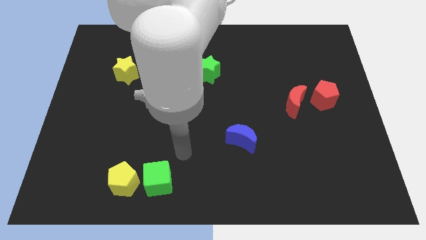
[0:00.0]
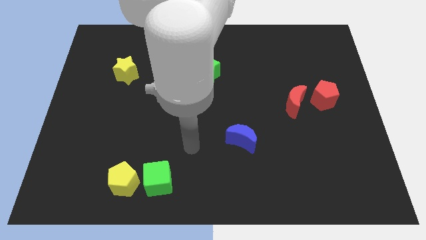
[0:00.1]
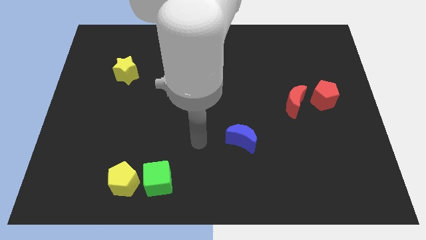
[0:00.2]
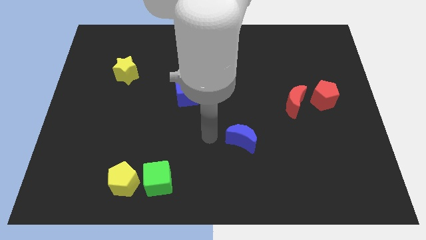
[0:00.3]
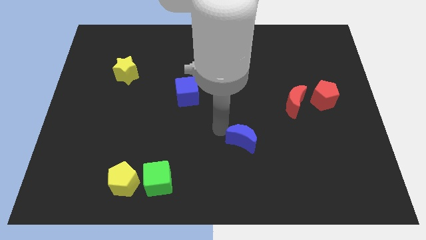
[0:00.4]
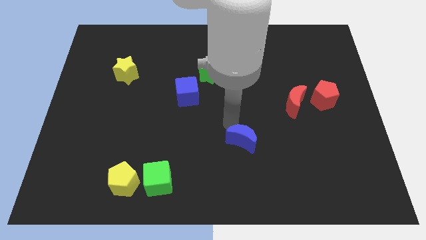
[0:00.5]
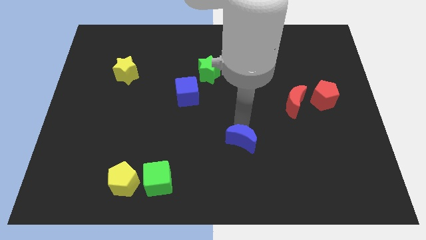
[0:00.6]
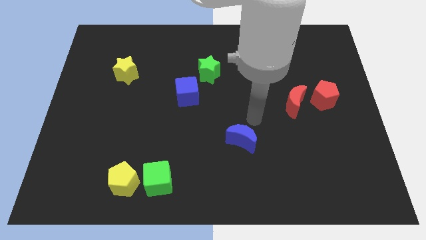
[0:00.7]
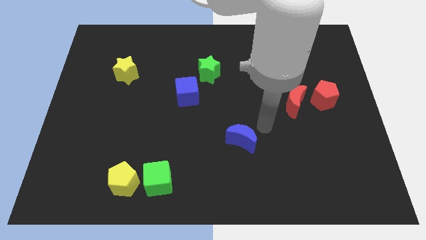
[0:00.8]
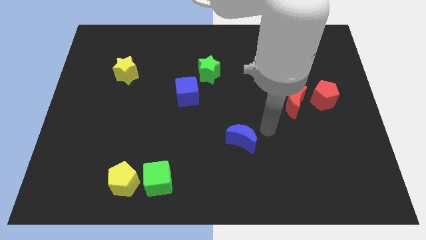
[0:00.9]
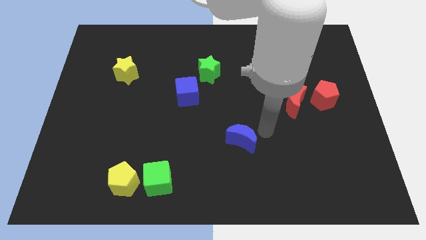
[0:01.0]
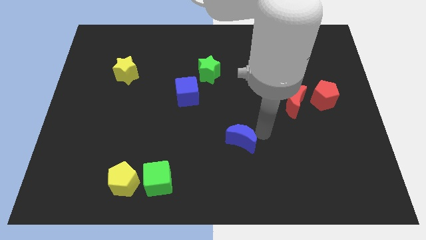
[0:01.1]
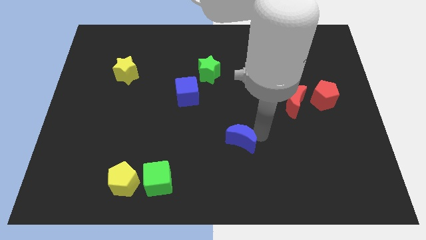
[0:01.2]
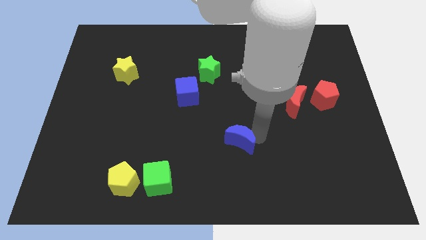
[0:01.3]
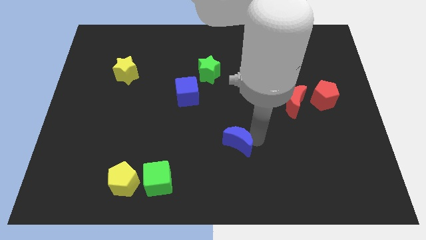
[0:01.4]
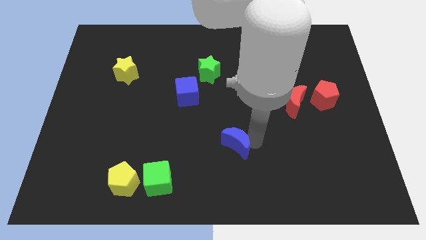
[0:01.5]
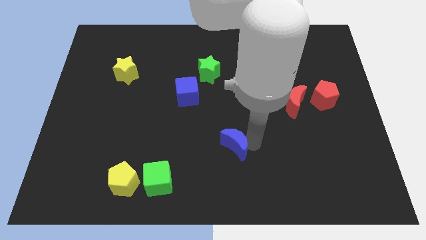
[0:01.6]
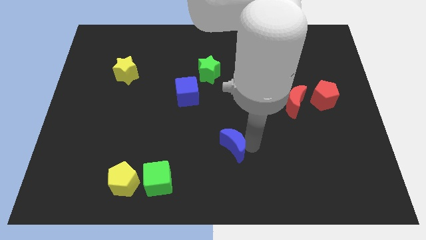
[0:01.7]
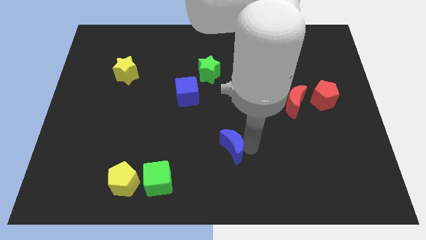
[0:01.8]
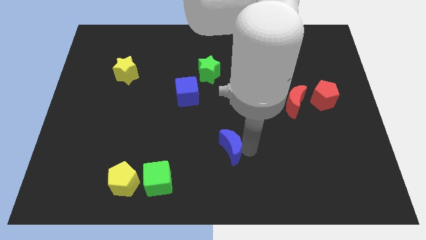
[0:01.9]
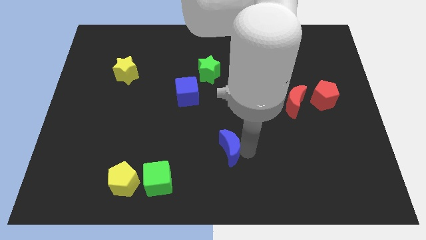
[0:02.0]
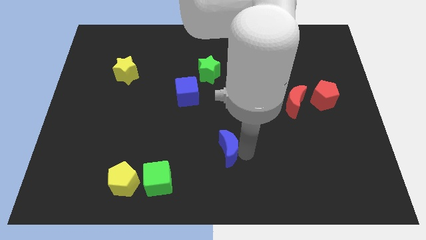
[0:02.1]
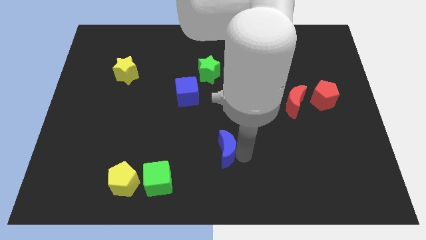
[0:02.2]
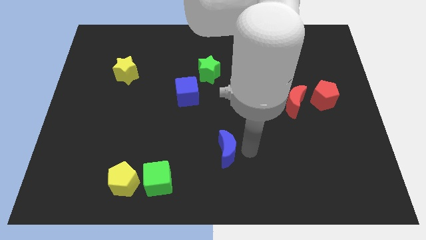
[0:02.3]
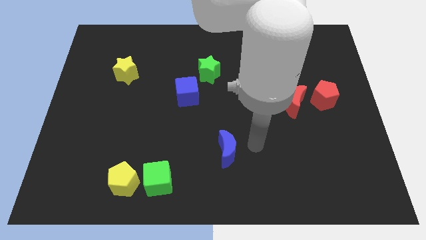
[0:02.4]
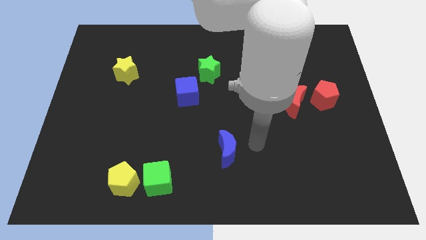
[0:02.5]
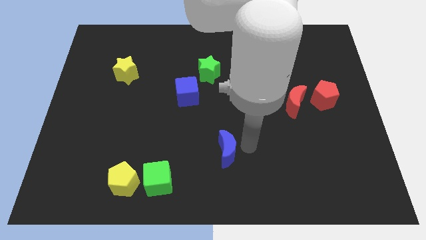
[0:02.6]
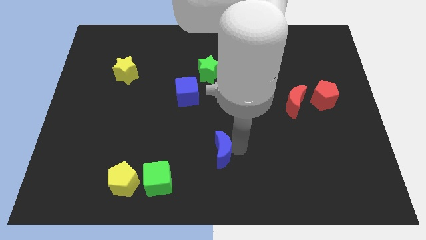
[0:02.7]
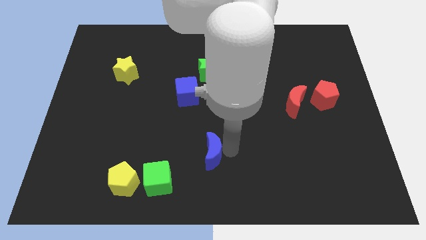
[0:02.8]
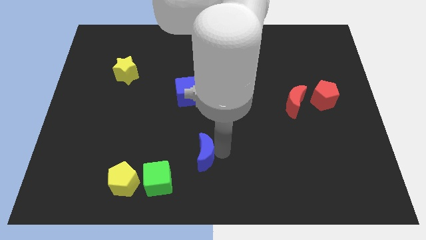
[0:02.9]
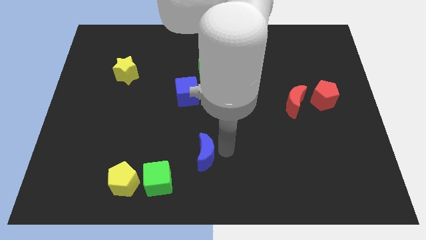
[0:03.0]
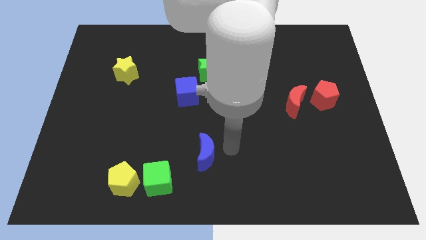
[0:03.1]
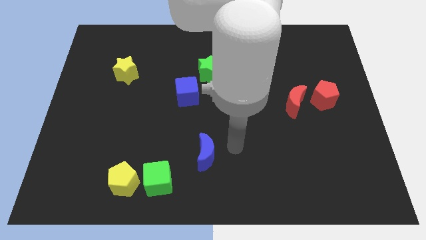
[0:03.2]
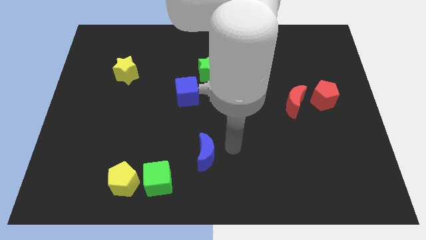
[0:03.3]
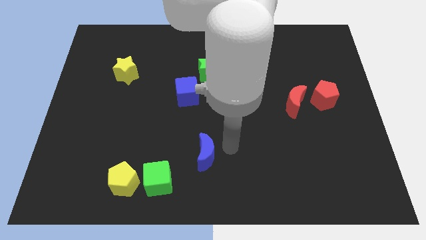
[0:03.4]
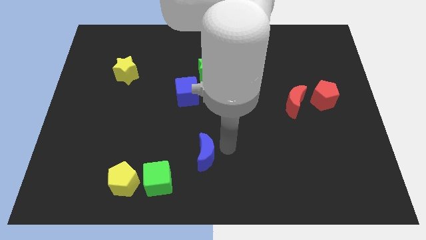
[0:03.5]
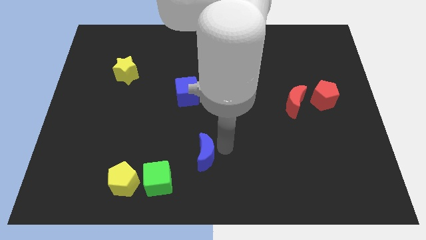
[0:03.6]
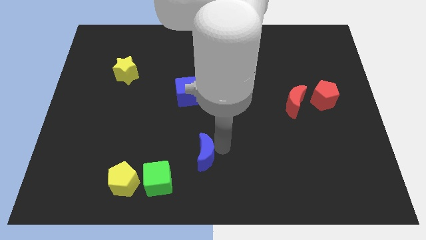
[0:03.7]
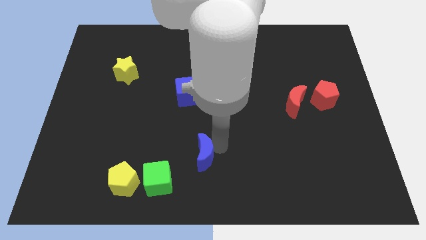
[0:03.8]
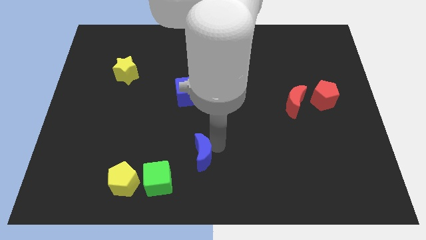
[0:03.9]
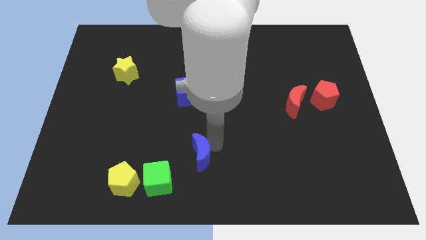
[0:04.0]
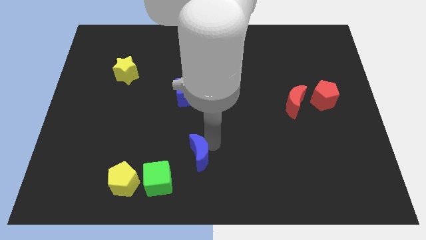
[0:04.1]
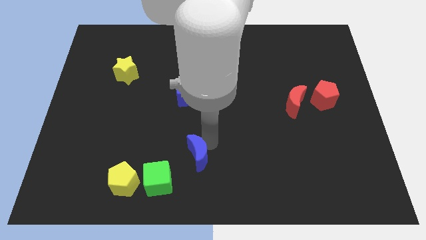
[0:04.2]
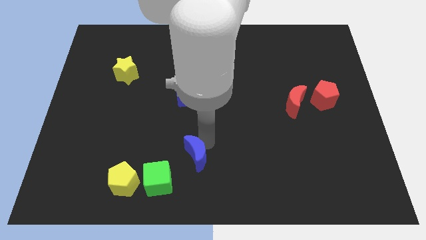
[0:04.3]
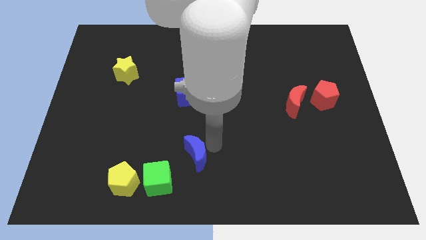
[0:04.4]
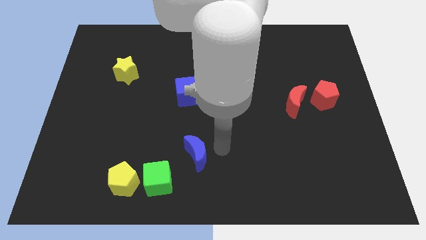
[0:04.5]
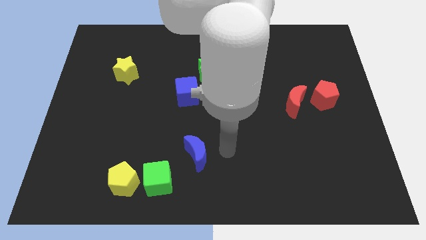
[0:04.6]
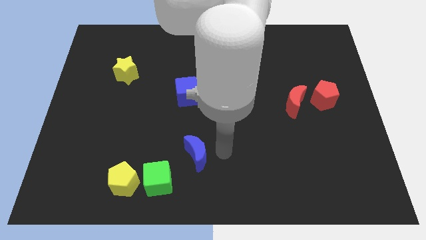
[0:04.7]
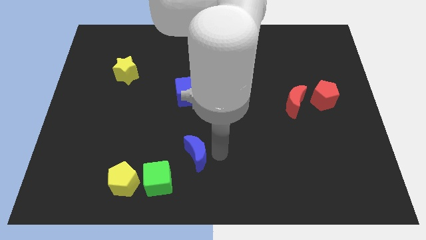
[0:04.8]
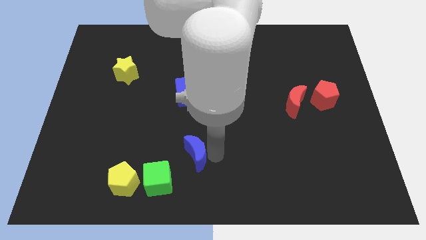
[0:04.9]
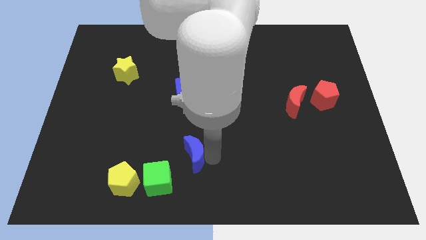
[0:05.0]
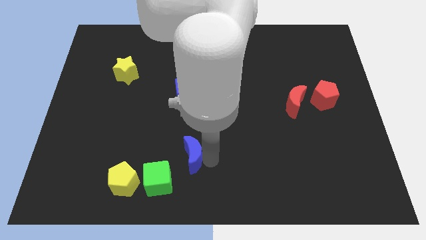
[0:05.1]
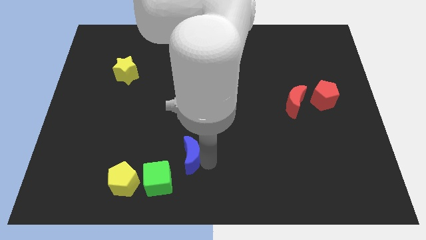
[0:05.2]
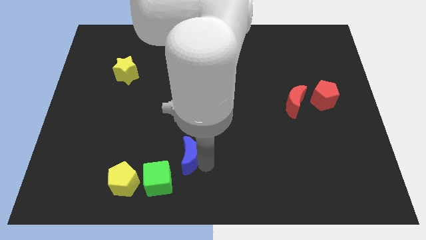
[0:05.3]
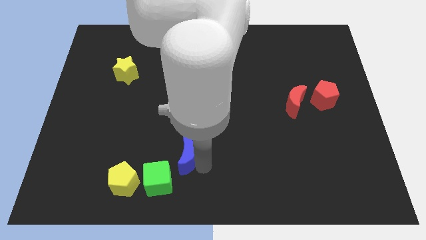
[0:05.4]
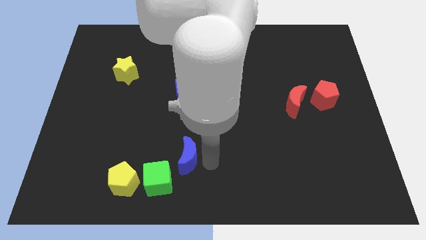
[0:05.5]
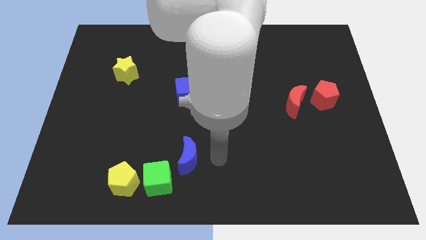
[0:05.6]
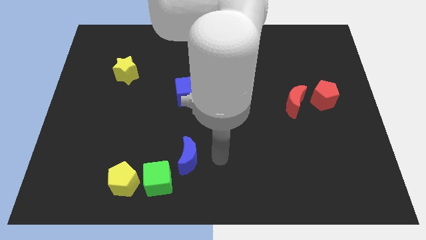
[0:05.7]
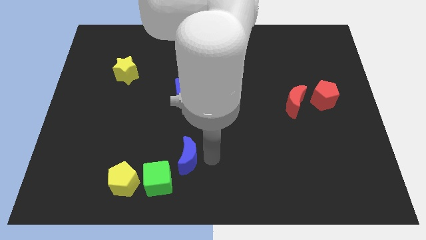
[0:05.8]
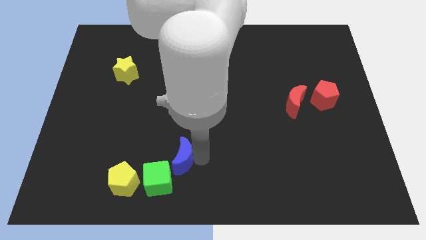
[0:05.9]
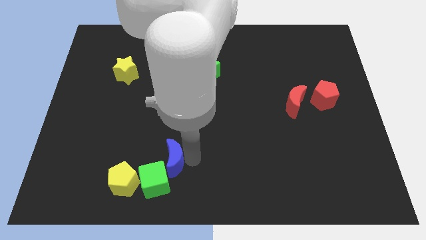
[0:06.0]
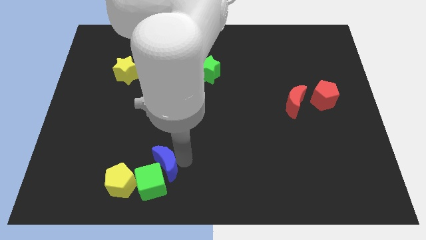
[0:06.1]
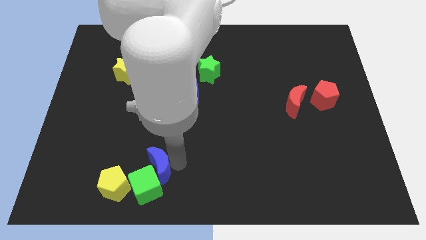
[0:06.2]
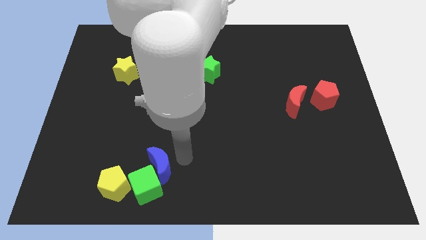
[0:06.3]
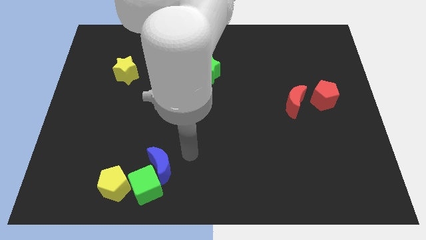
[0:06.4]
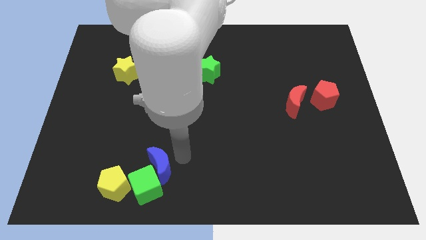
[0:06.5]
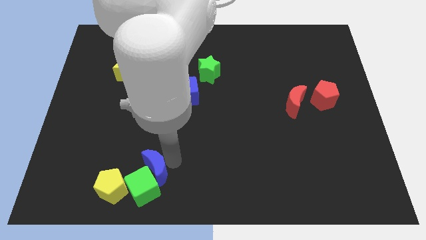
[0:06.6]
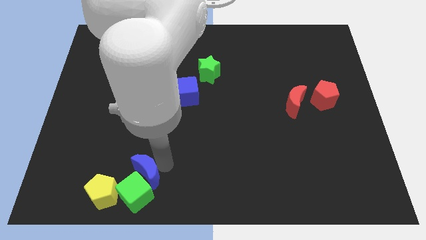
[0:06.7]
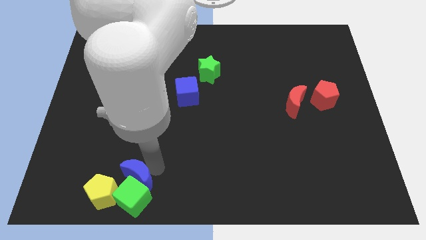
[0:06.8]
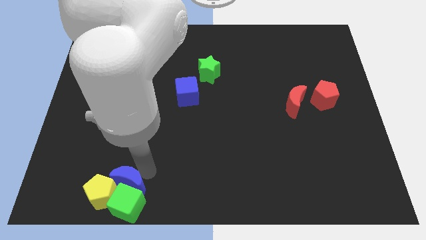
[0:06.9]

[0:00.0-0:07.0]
slide the blue moon close to the yellow pentagon
